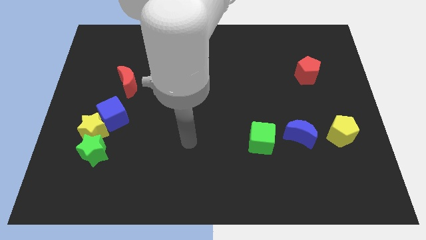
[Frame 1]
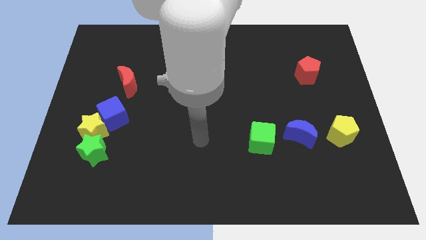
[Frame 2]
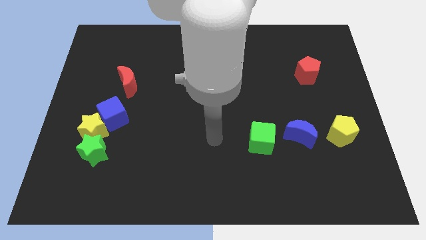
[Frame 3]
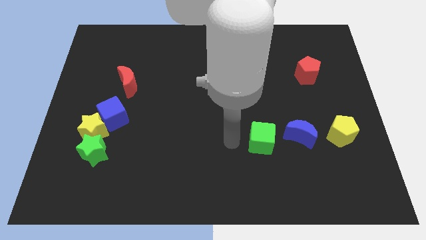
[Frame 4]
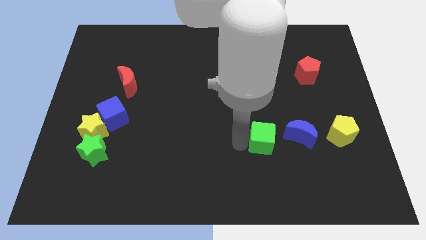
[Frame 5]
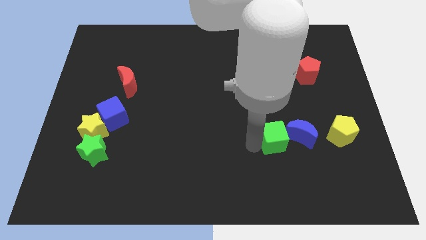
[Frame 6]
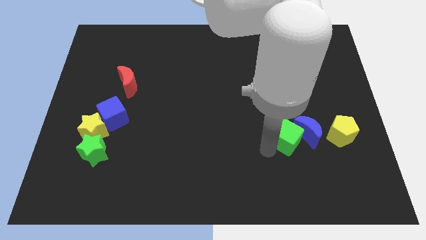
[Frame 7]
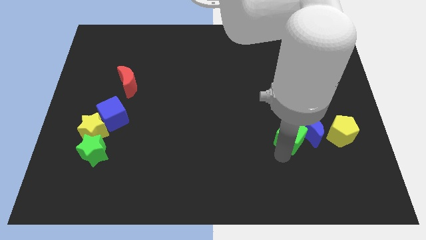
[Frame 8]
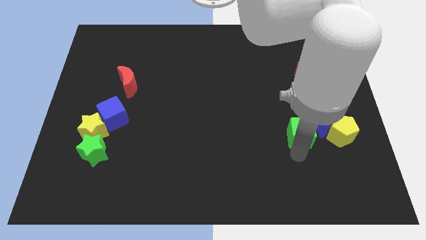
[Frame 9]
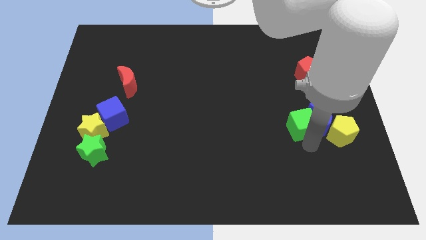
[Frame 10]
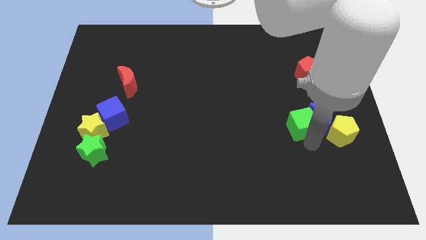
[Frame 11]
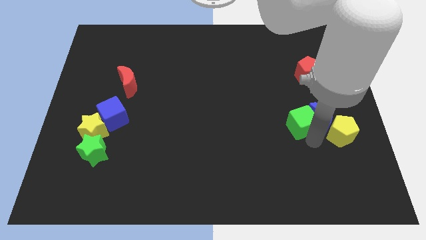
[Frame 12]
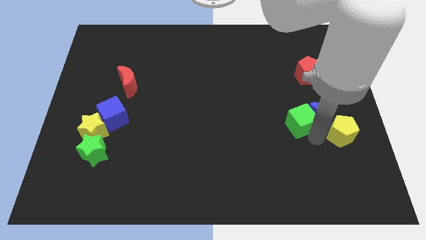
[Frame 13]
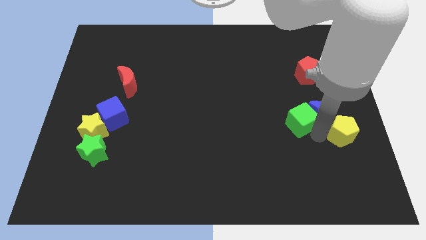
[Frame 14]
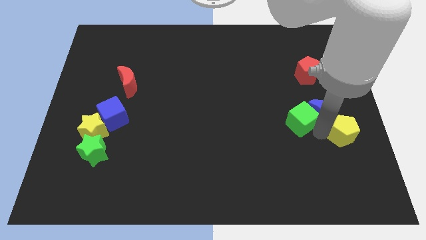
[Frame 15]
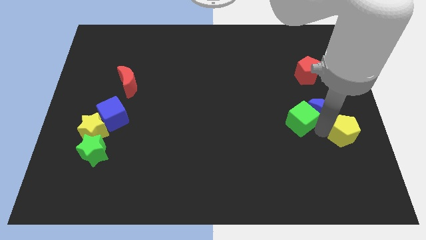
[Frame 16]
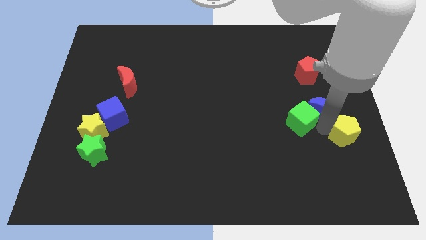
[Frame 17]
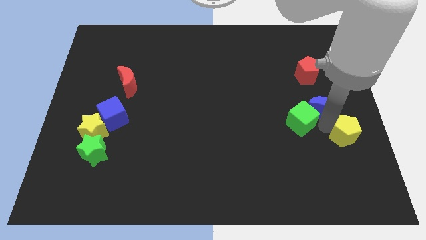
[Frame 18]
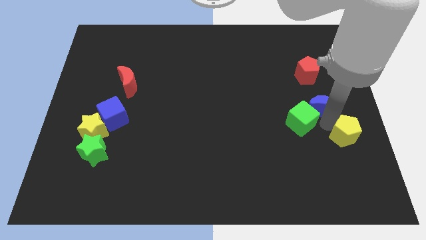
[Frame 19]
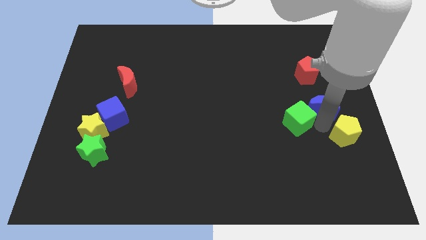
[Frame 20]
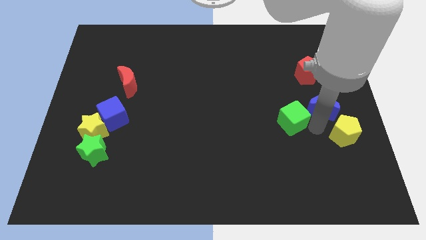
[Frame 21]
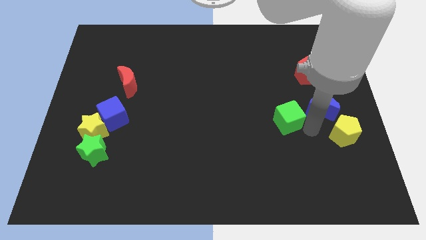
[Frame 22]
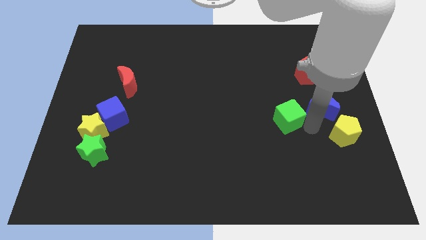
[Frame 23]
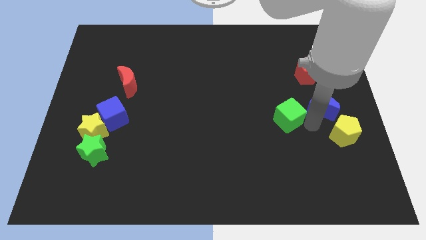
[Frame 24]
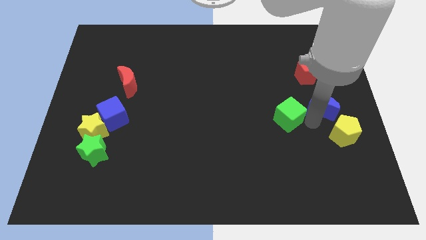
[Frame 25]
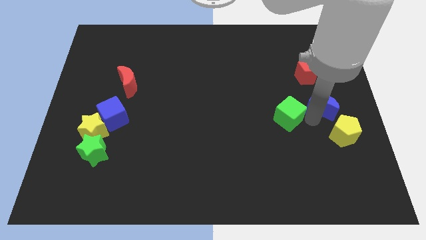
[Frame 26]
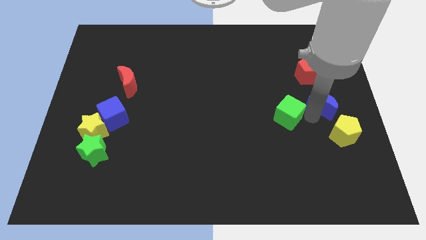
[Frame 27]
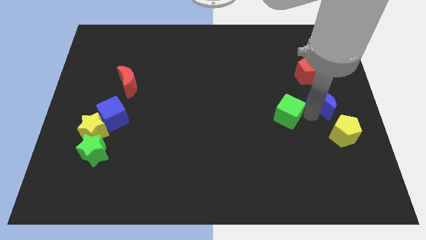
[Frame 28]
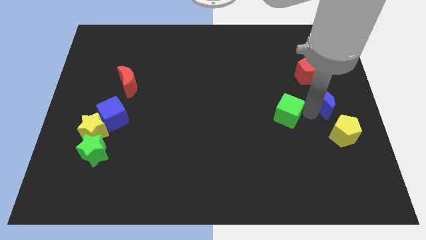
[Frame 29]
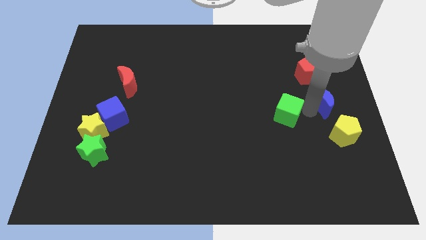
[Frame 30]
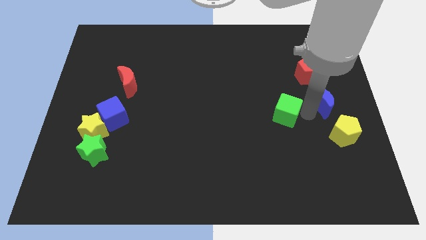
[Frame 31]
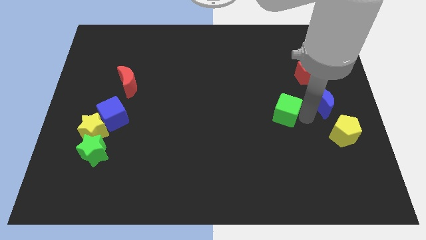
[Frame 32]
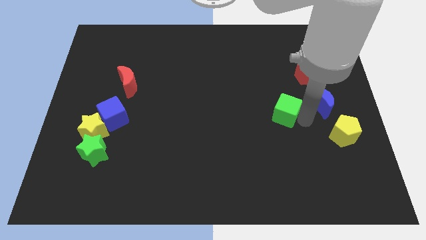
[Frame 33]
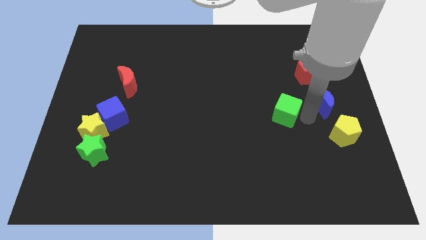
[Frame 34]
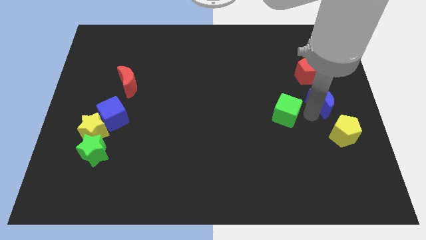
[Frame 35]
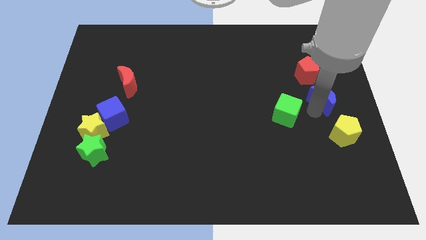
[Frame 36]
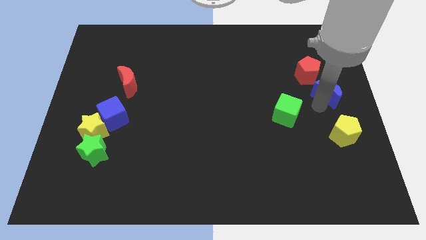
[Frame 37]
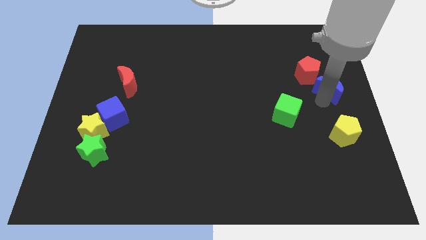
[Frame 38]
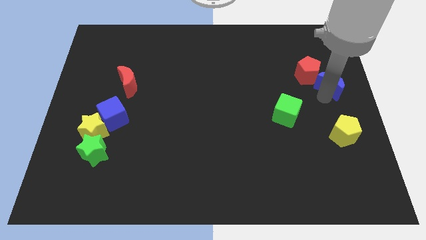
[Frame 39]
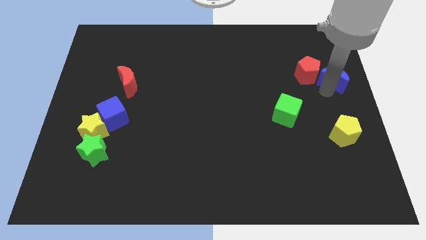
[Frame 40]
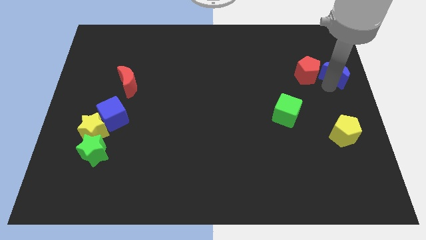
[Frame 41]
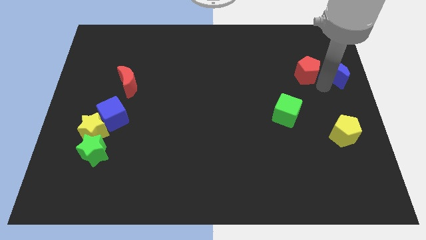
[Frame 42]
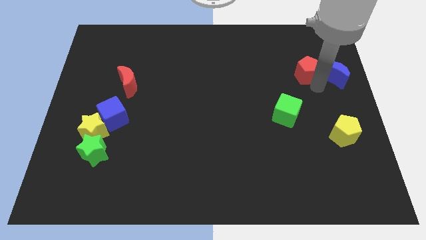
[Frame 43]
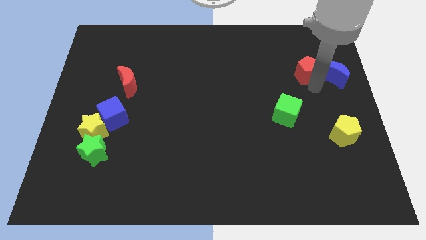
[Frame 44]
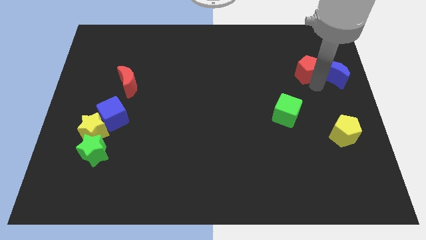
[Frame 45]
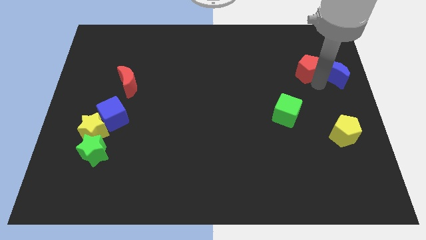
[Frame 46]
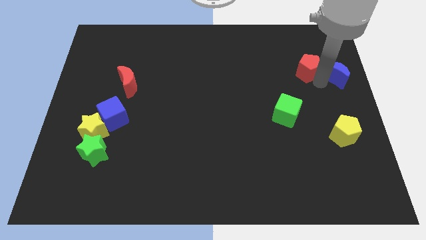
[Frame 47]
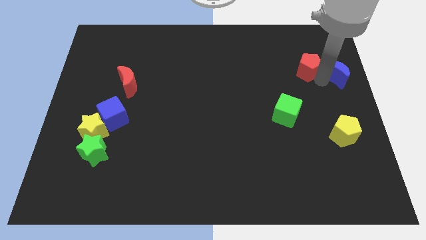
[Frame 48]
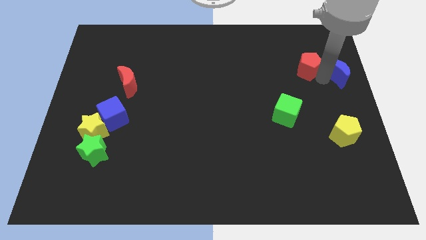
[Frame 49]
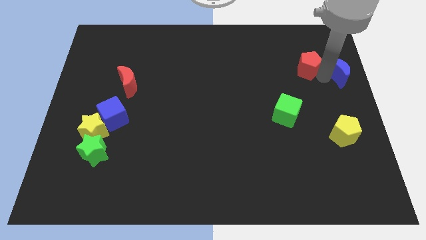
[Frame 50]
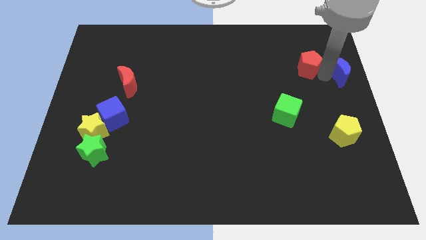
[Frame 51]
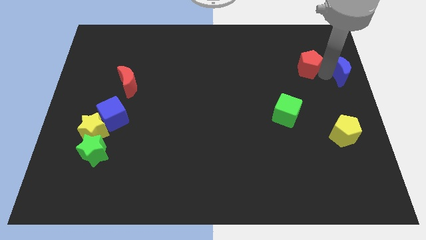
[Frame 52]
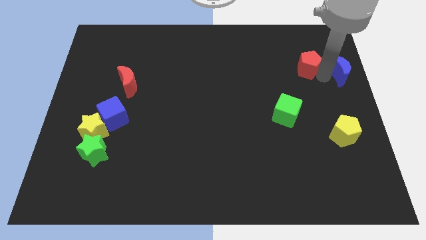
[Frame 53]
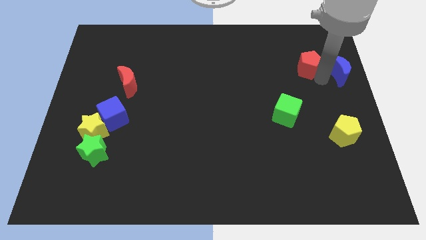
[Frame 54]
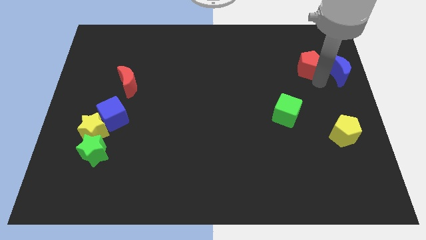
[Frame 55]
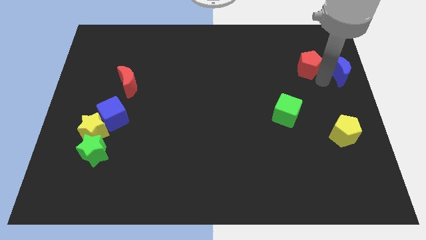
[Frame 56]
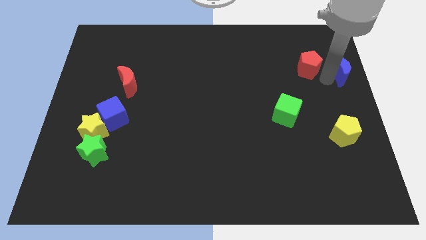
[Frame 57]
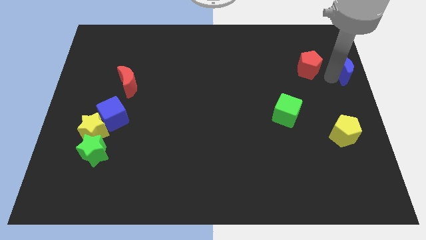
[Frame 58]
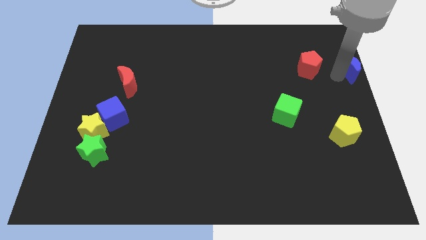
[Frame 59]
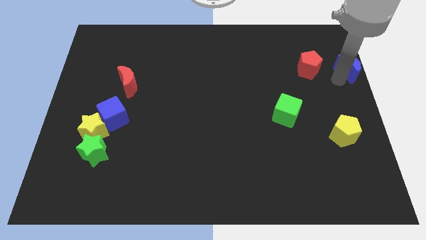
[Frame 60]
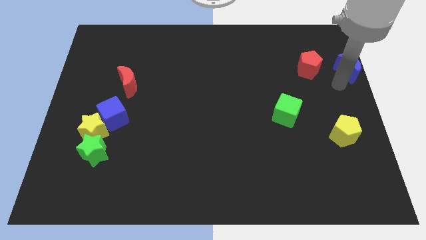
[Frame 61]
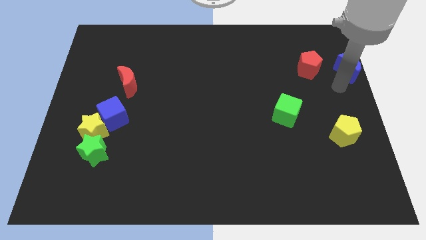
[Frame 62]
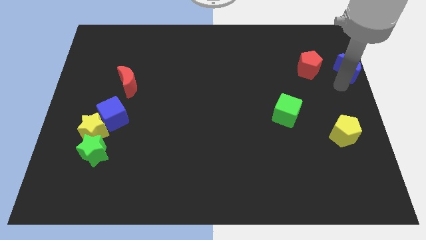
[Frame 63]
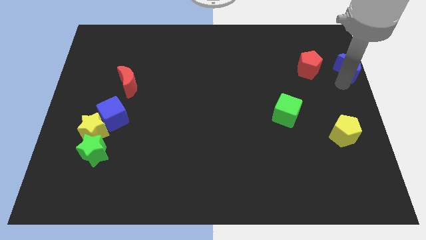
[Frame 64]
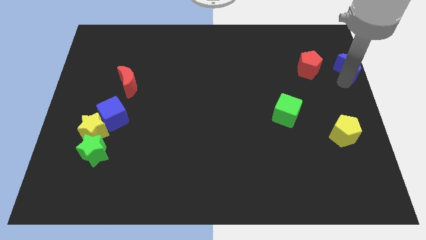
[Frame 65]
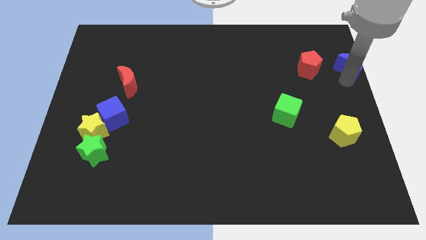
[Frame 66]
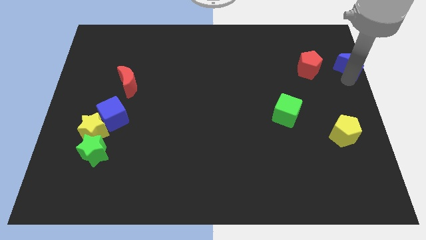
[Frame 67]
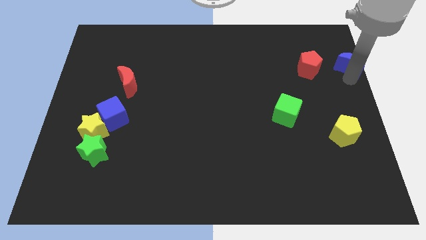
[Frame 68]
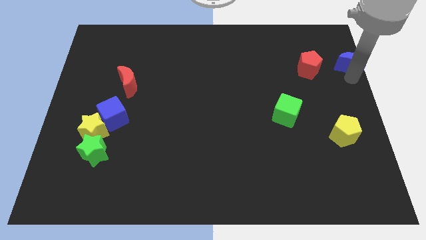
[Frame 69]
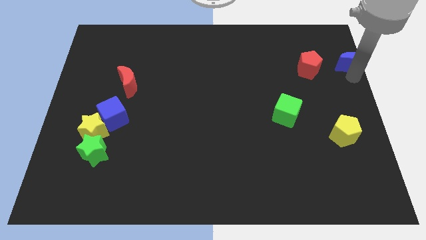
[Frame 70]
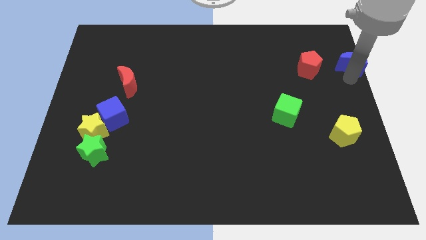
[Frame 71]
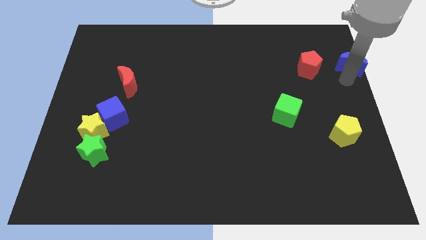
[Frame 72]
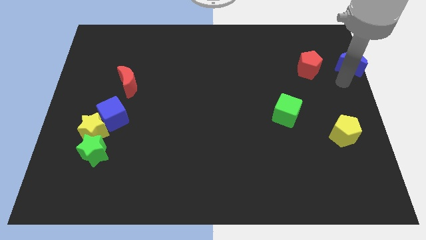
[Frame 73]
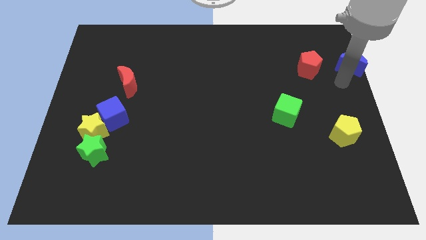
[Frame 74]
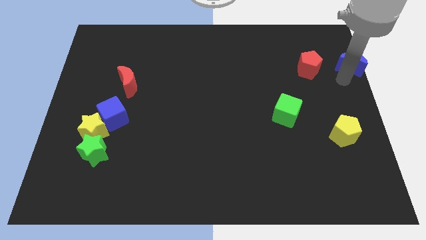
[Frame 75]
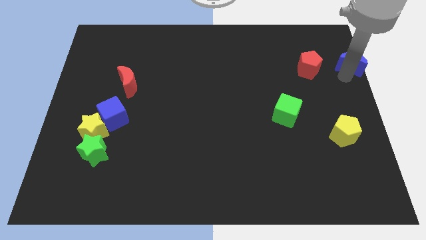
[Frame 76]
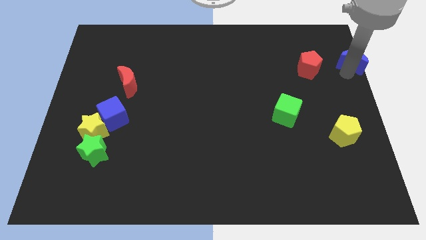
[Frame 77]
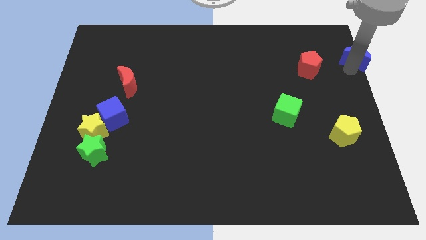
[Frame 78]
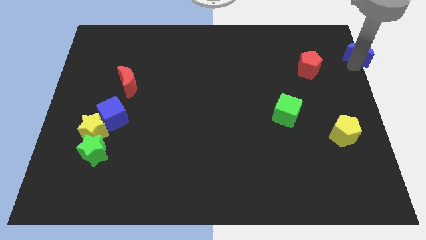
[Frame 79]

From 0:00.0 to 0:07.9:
slide the blue moon to the top right corner

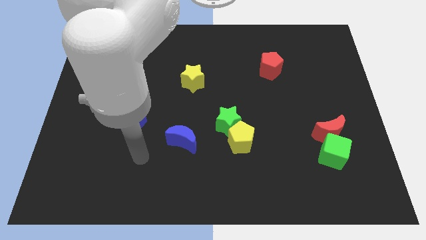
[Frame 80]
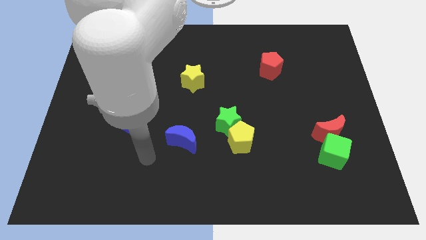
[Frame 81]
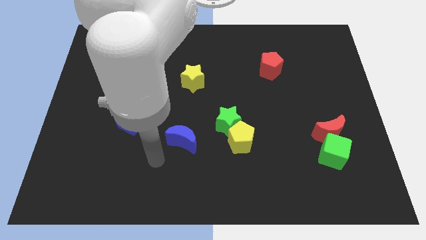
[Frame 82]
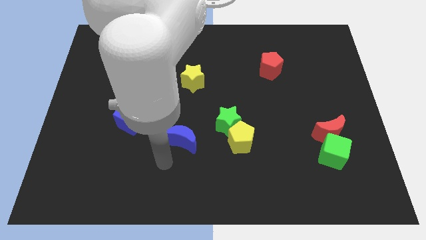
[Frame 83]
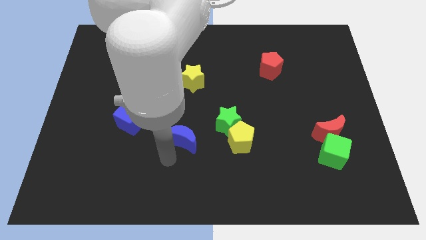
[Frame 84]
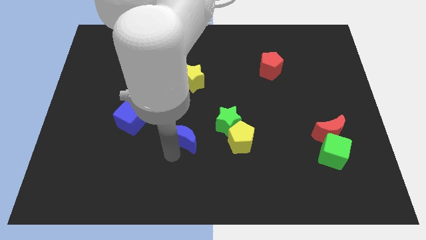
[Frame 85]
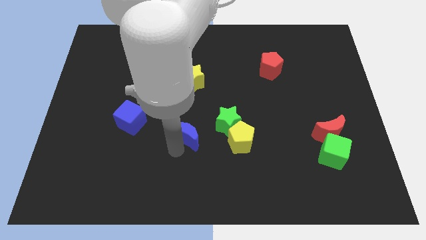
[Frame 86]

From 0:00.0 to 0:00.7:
slide the blue moon to the center of the board
